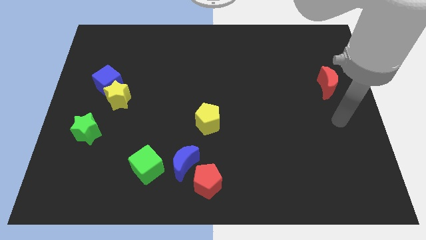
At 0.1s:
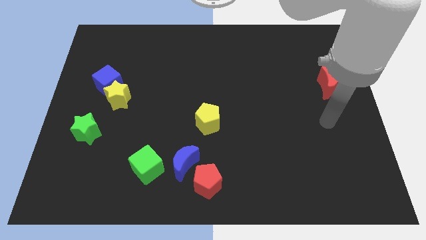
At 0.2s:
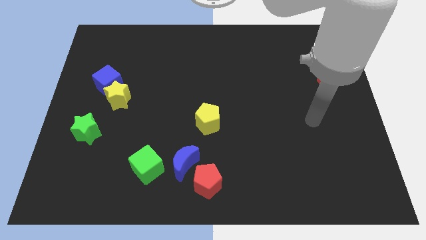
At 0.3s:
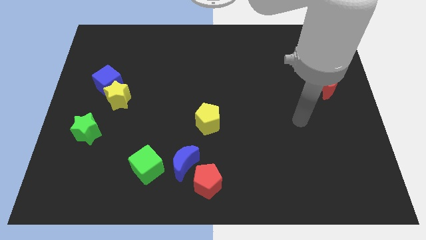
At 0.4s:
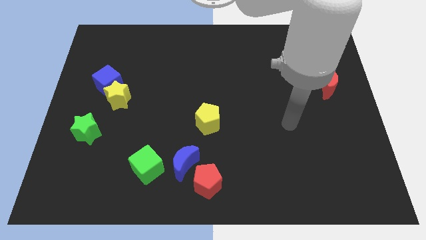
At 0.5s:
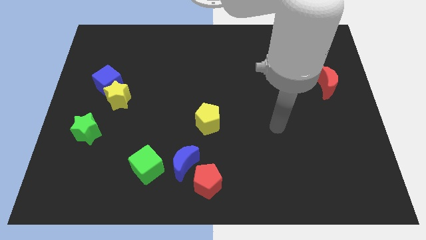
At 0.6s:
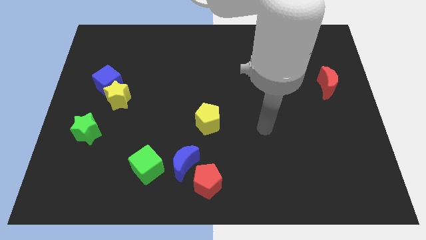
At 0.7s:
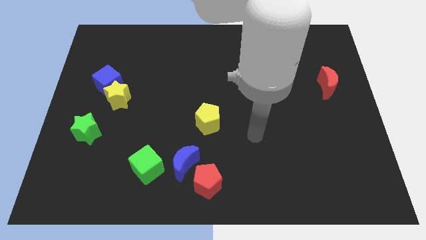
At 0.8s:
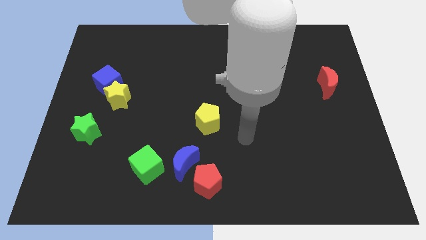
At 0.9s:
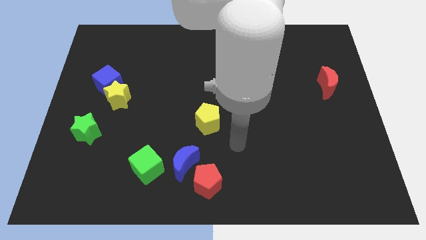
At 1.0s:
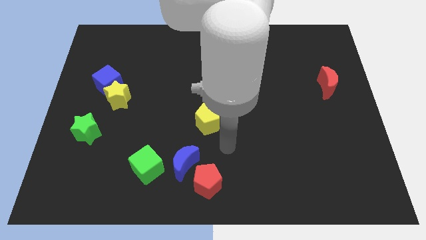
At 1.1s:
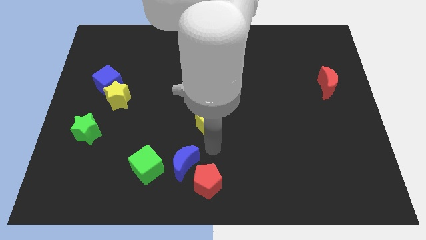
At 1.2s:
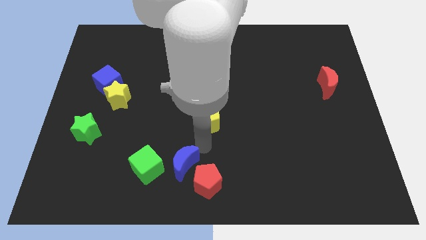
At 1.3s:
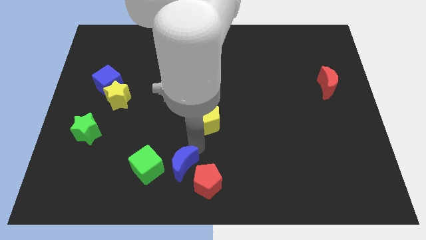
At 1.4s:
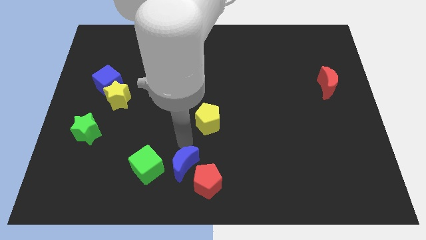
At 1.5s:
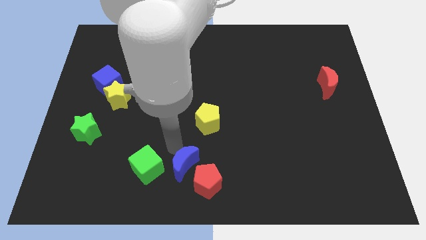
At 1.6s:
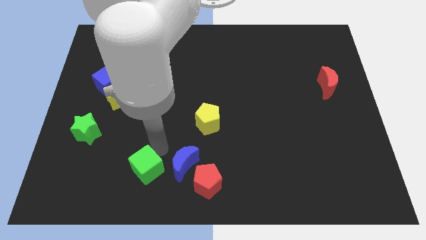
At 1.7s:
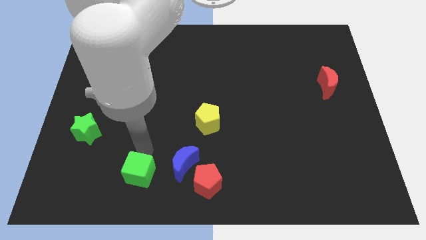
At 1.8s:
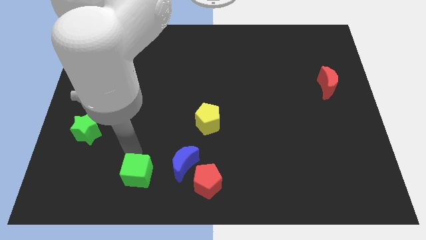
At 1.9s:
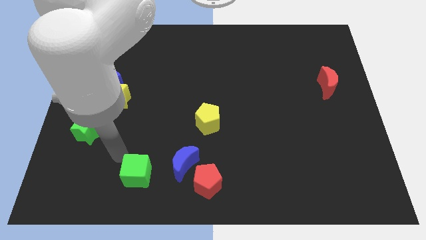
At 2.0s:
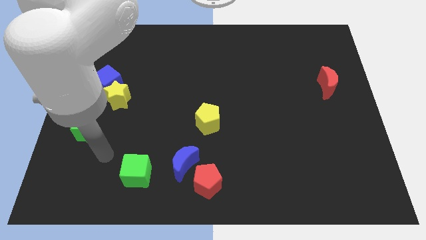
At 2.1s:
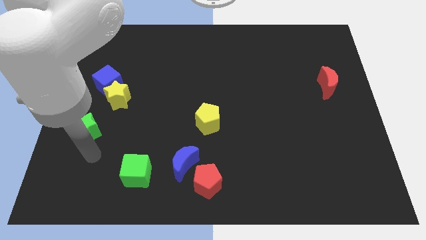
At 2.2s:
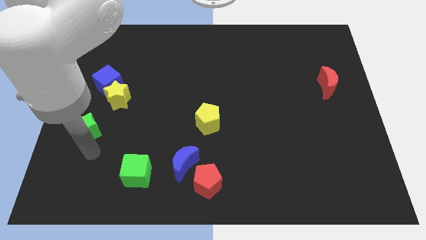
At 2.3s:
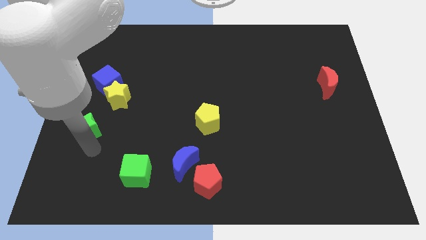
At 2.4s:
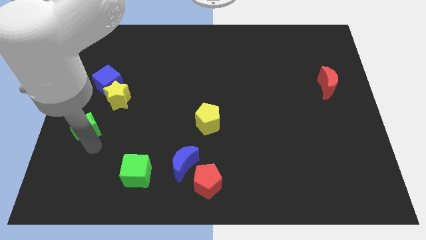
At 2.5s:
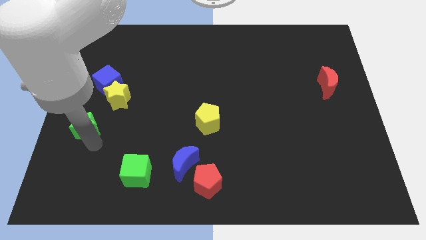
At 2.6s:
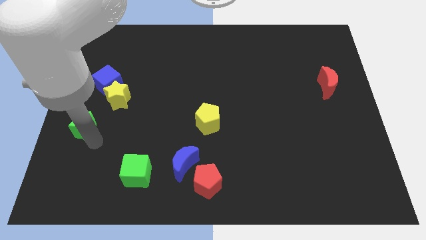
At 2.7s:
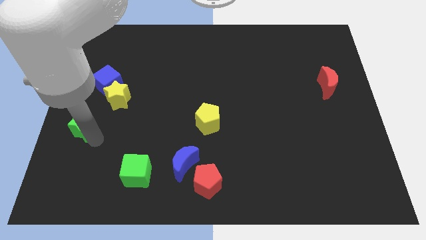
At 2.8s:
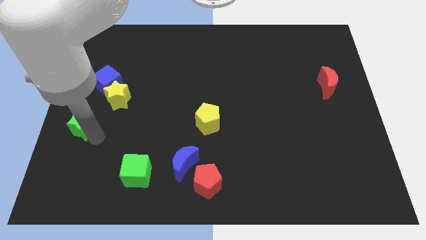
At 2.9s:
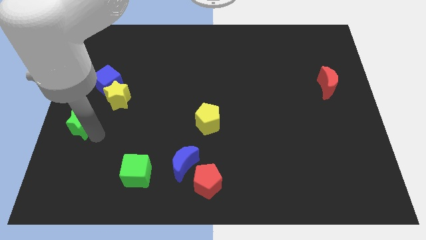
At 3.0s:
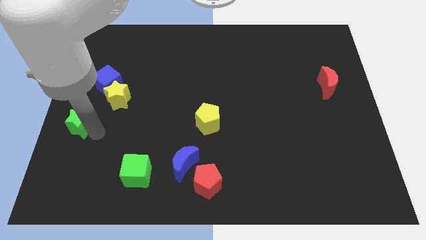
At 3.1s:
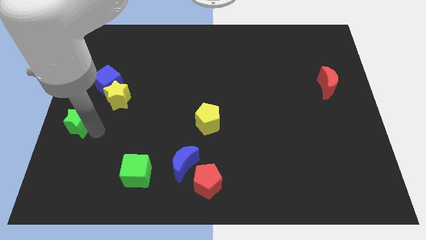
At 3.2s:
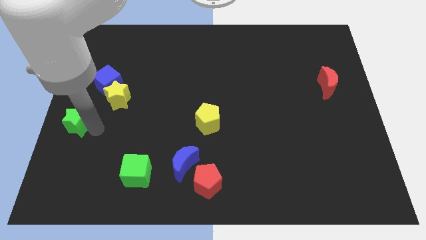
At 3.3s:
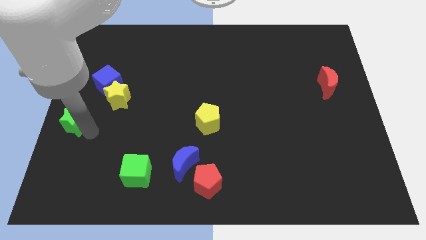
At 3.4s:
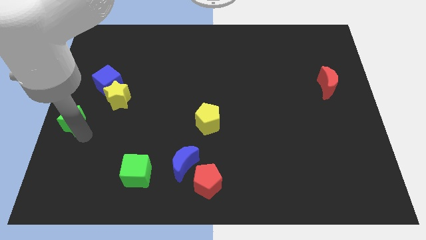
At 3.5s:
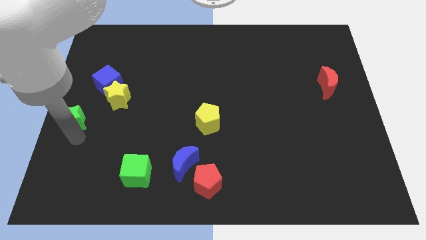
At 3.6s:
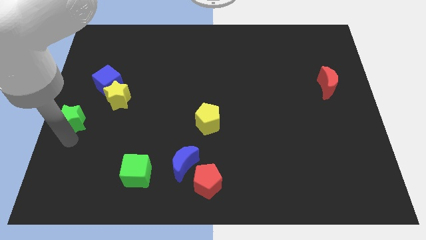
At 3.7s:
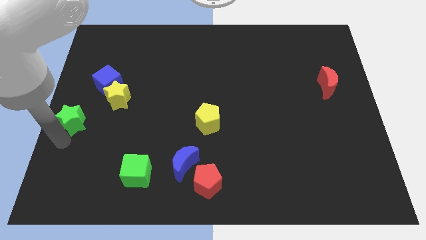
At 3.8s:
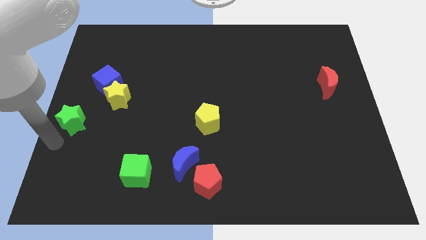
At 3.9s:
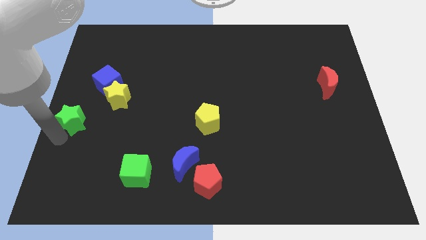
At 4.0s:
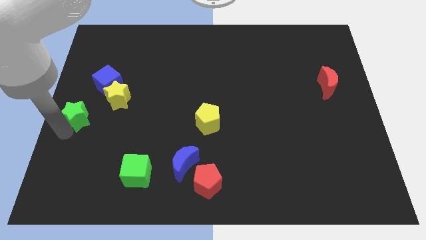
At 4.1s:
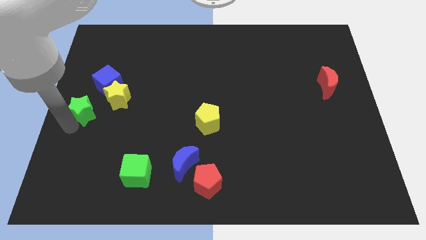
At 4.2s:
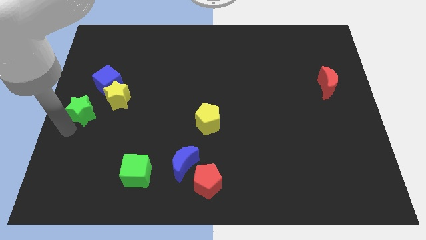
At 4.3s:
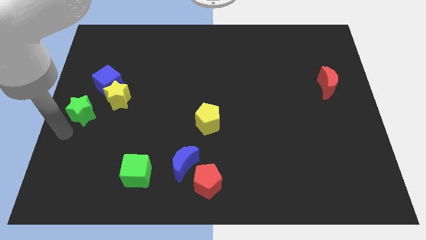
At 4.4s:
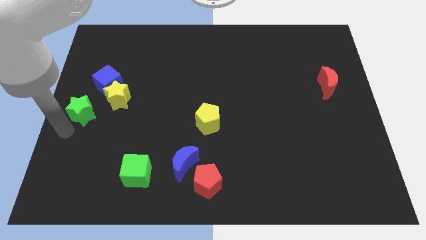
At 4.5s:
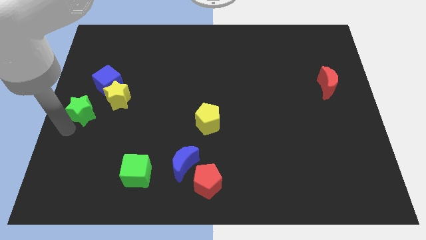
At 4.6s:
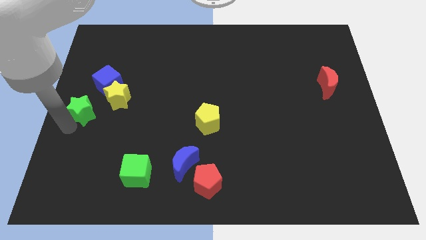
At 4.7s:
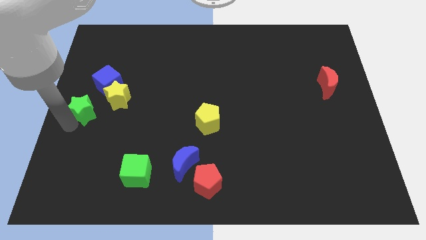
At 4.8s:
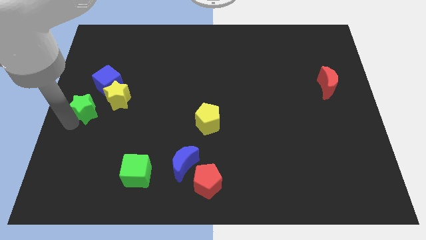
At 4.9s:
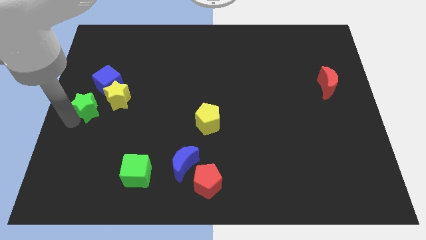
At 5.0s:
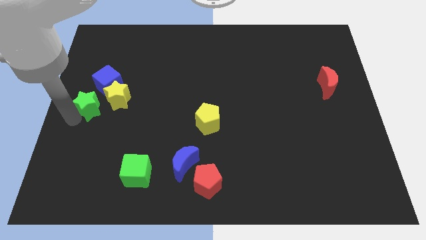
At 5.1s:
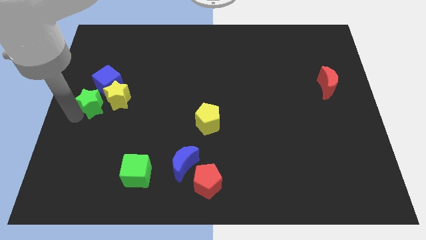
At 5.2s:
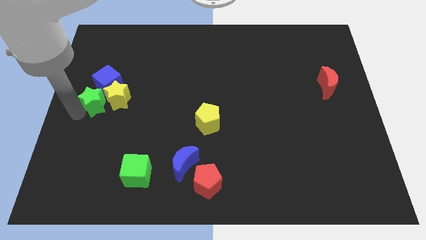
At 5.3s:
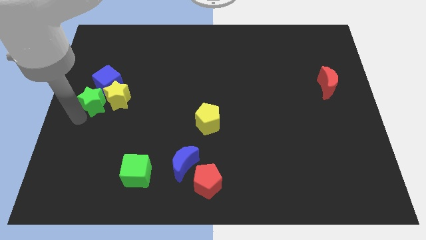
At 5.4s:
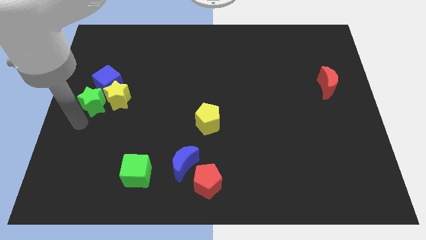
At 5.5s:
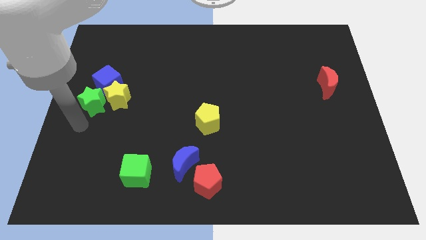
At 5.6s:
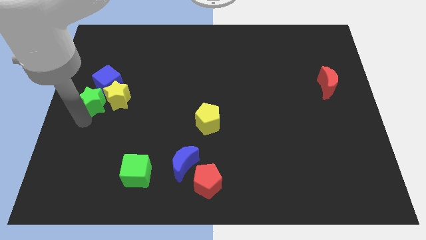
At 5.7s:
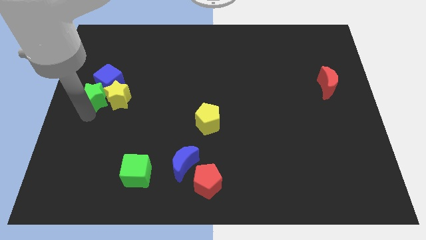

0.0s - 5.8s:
push the green star close to the blue cube

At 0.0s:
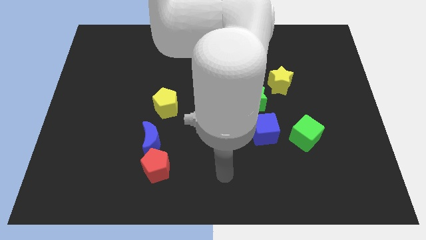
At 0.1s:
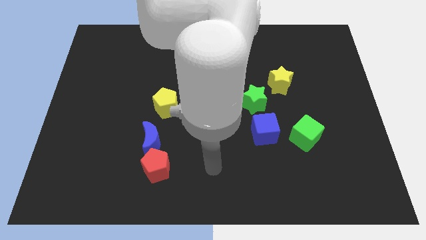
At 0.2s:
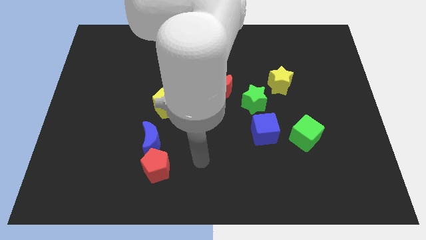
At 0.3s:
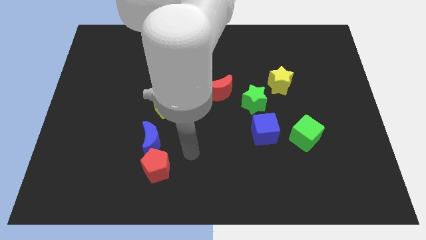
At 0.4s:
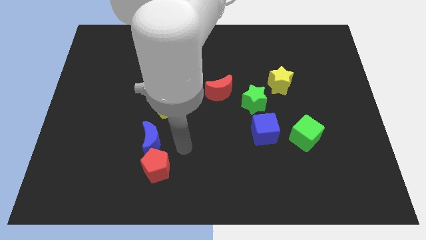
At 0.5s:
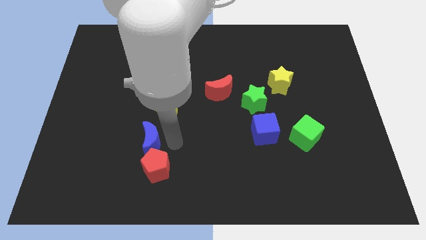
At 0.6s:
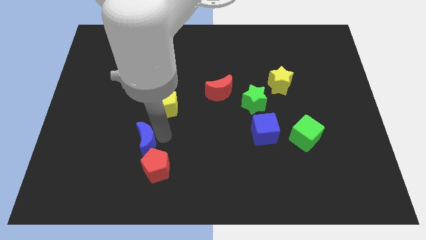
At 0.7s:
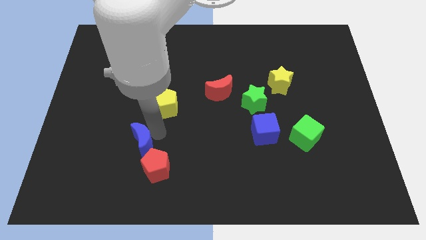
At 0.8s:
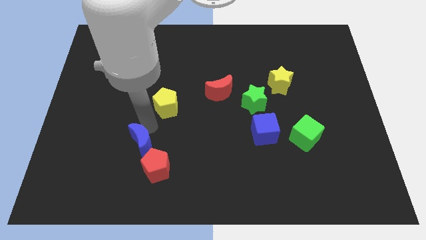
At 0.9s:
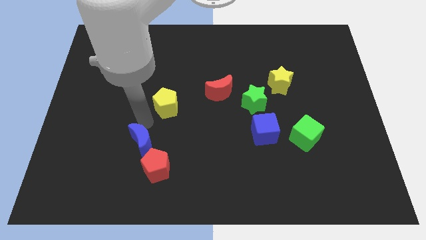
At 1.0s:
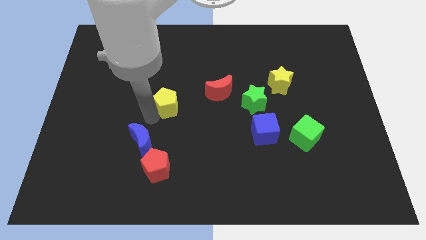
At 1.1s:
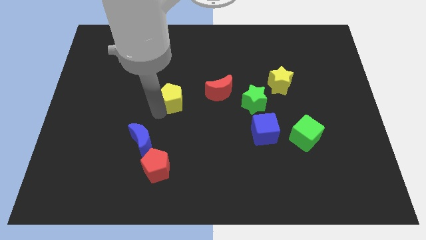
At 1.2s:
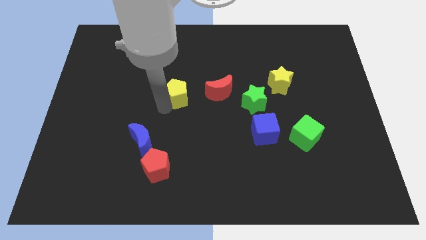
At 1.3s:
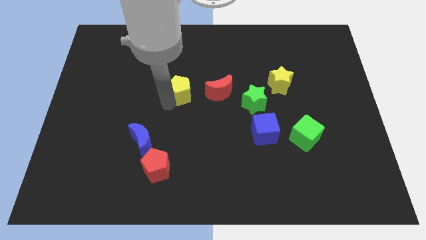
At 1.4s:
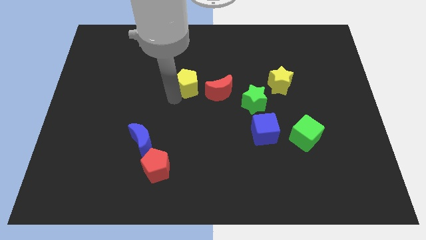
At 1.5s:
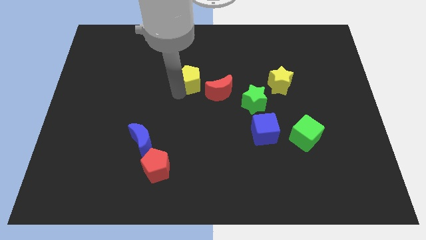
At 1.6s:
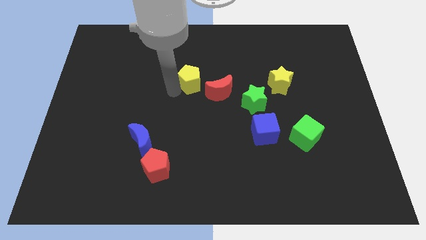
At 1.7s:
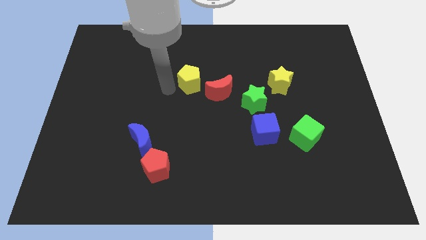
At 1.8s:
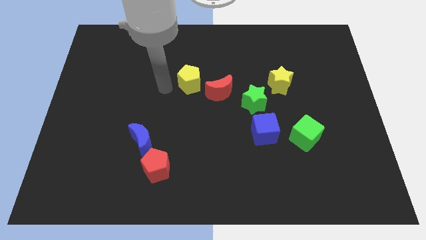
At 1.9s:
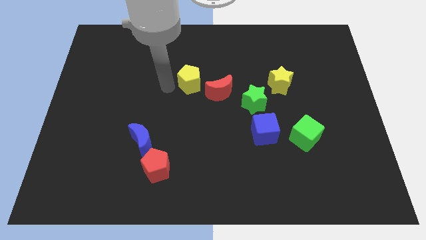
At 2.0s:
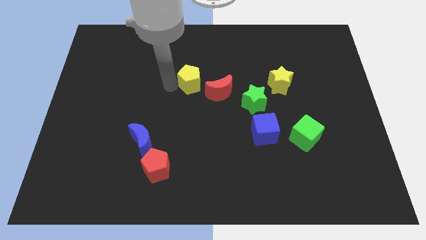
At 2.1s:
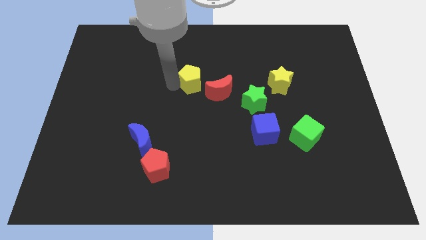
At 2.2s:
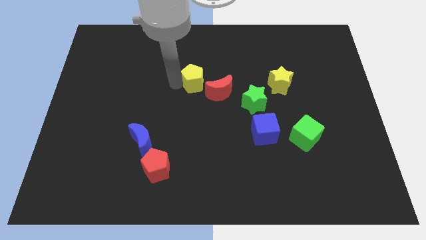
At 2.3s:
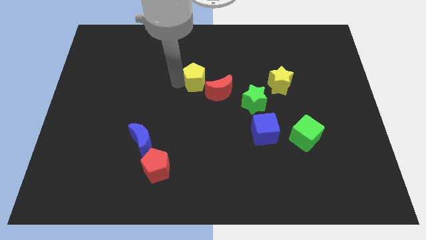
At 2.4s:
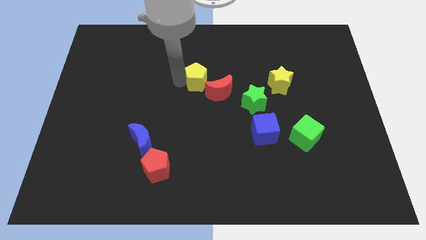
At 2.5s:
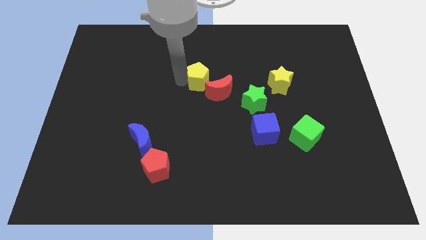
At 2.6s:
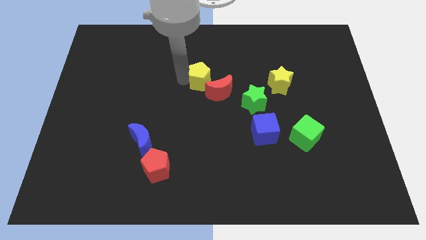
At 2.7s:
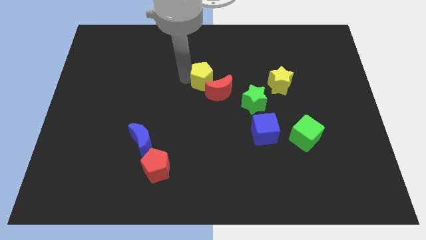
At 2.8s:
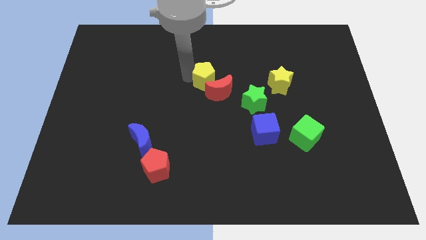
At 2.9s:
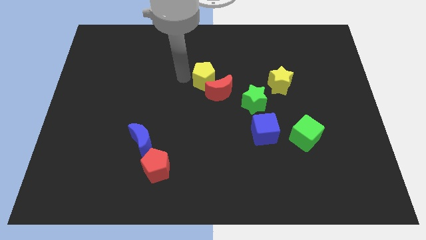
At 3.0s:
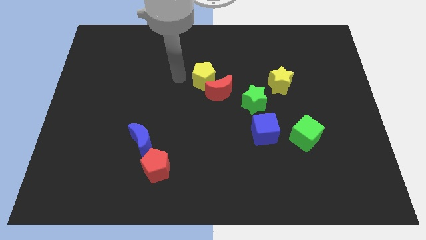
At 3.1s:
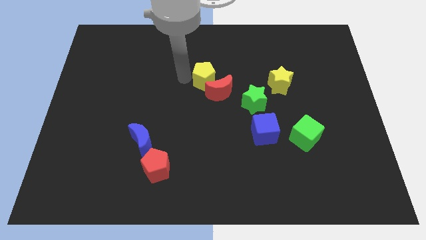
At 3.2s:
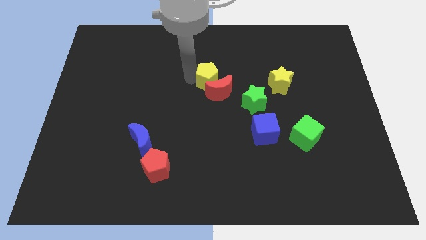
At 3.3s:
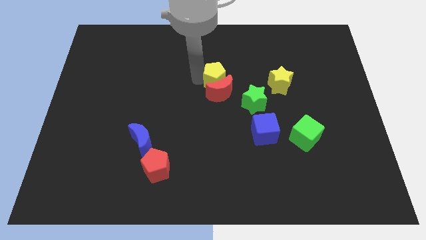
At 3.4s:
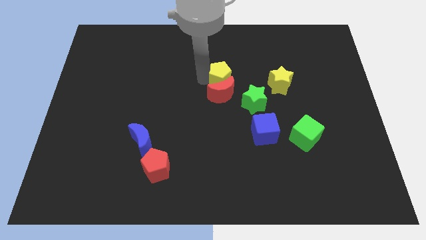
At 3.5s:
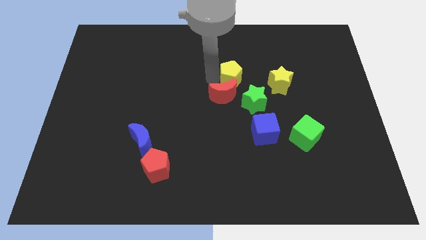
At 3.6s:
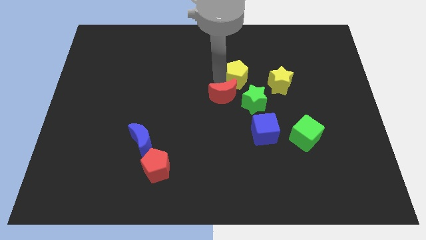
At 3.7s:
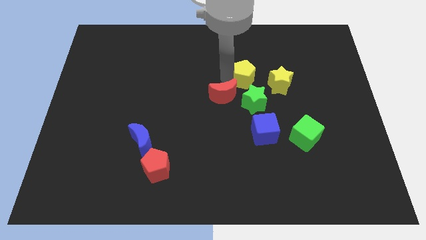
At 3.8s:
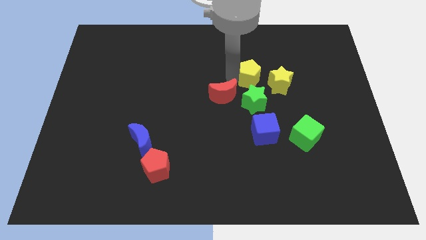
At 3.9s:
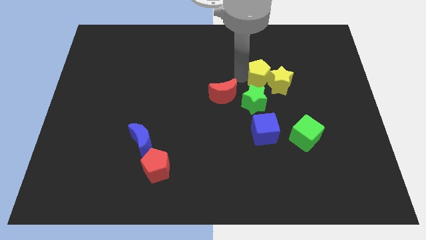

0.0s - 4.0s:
slide the yellow pentagon close to the yellow star
